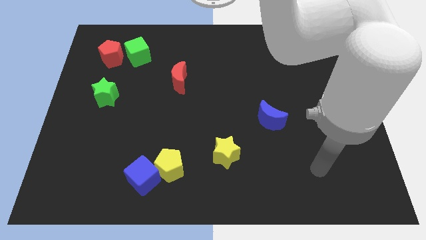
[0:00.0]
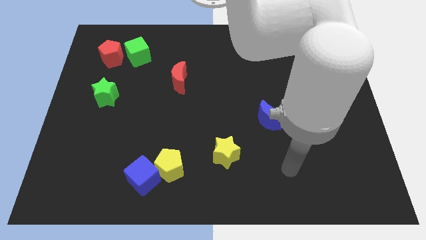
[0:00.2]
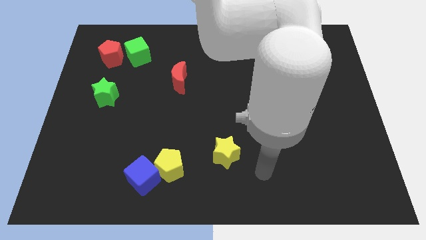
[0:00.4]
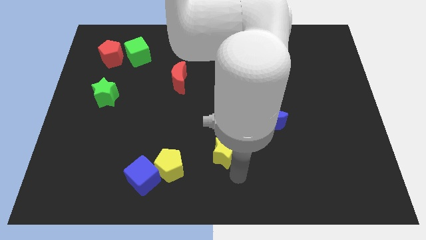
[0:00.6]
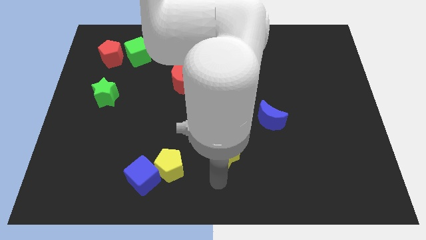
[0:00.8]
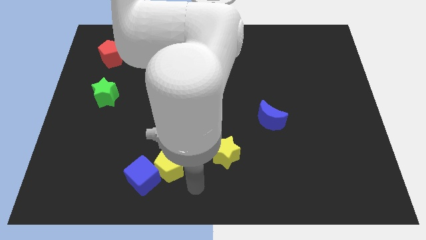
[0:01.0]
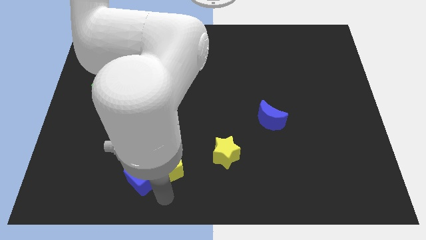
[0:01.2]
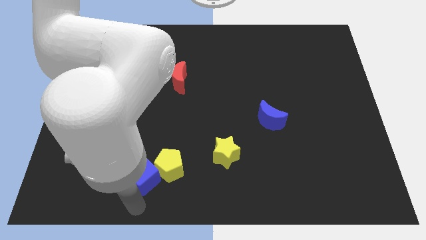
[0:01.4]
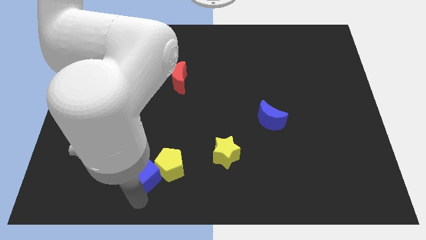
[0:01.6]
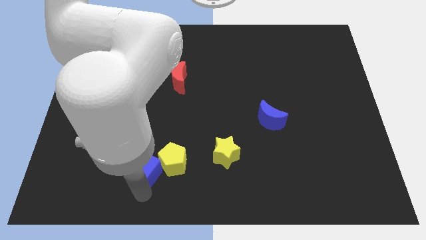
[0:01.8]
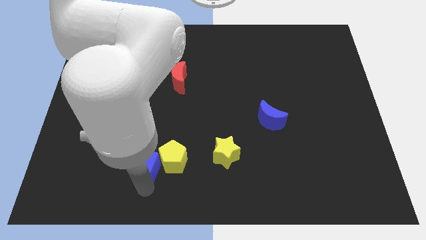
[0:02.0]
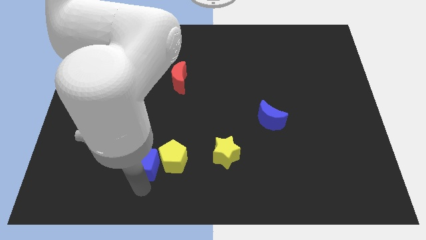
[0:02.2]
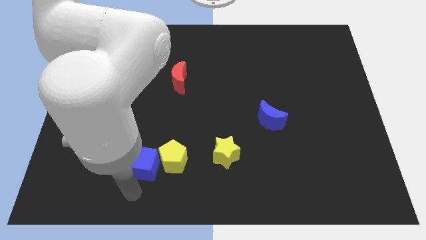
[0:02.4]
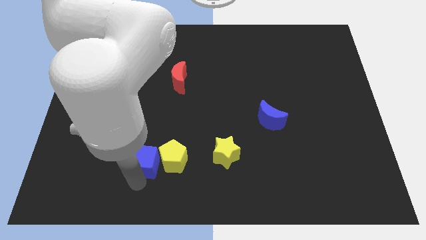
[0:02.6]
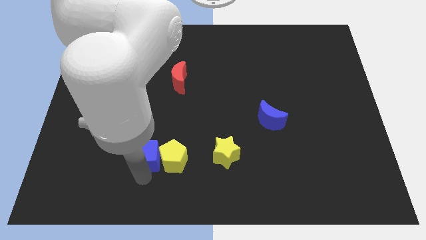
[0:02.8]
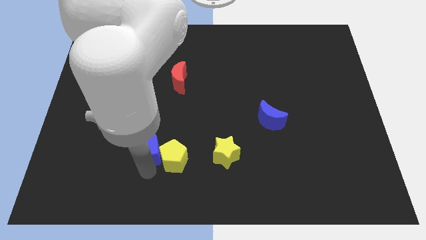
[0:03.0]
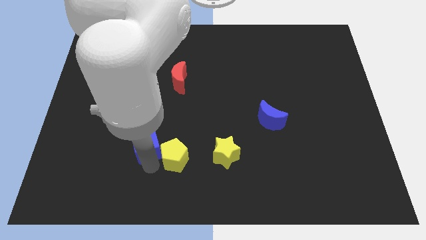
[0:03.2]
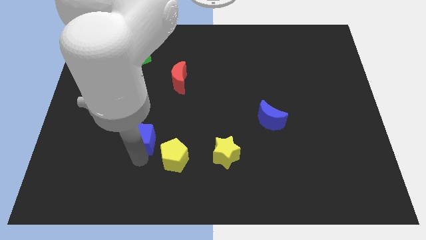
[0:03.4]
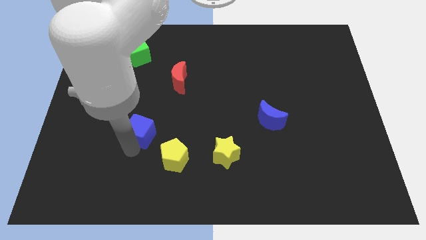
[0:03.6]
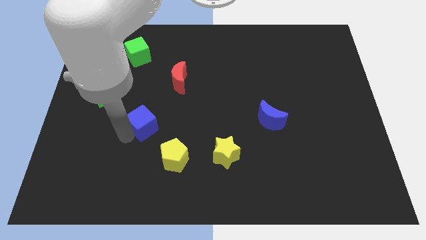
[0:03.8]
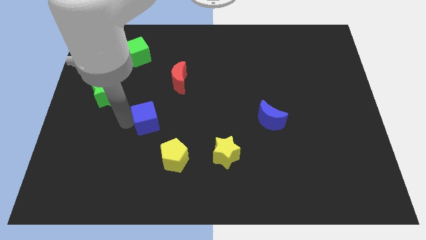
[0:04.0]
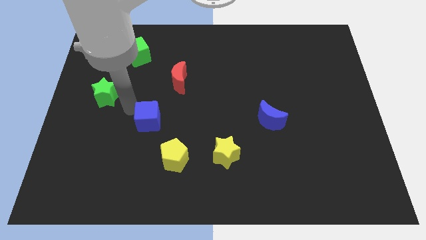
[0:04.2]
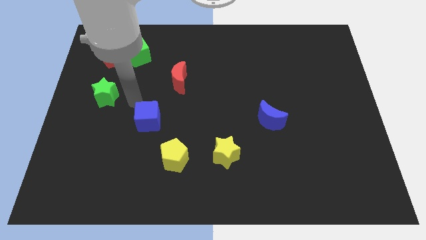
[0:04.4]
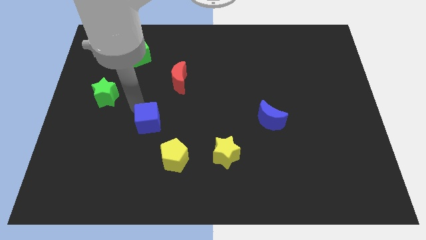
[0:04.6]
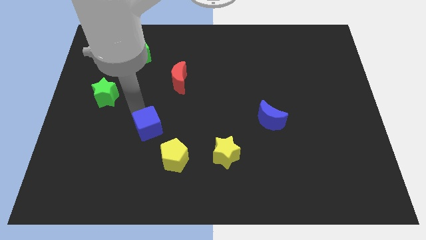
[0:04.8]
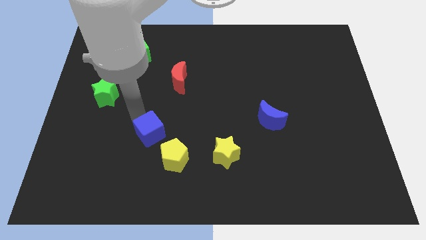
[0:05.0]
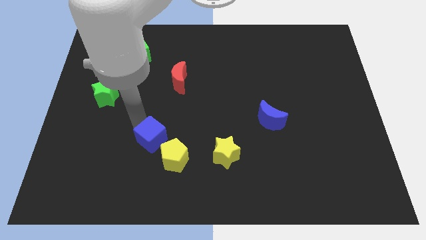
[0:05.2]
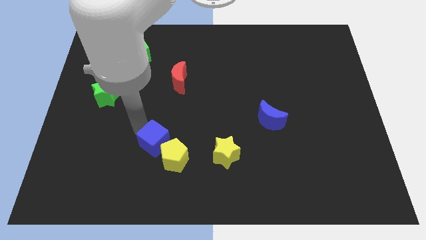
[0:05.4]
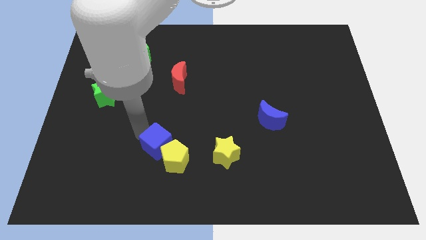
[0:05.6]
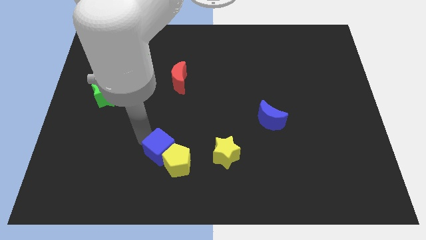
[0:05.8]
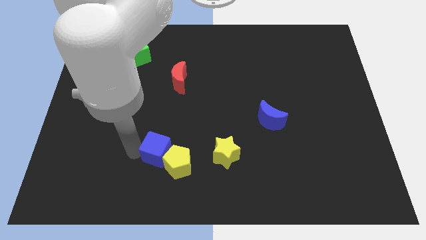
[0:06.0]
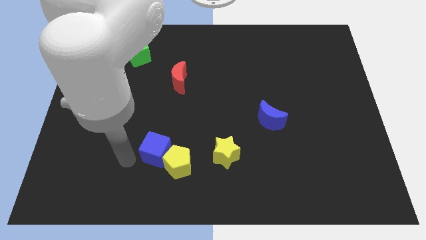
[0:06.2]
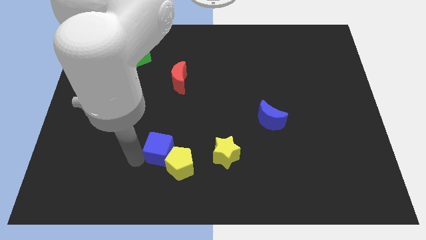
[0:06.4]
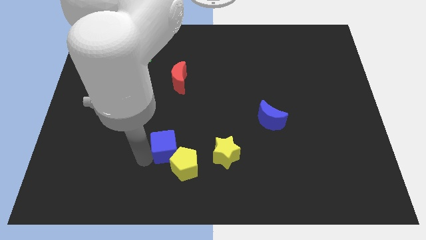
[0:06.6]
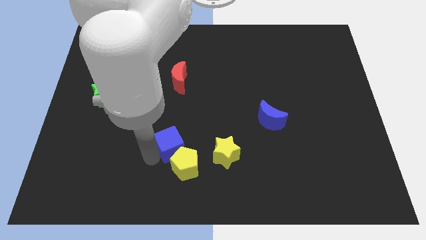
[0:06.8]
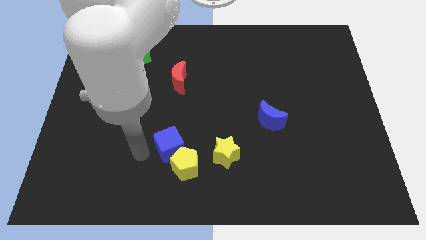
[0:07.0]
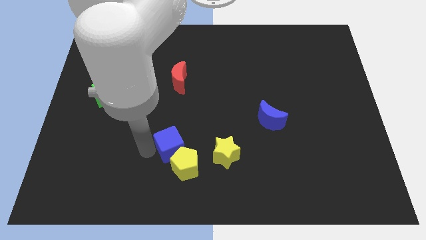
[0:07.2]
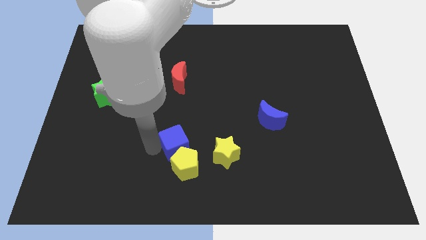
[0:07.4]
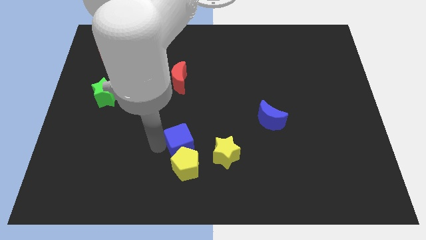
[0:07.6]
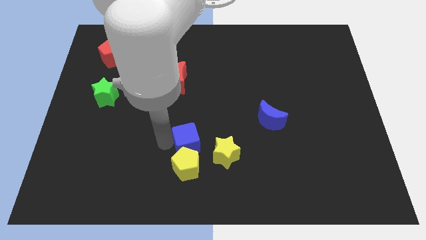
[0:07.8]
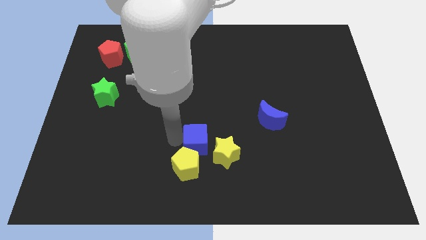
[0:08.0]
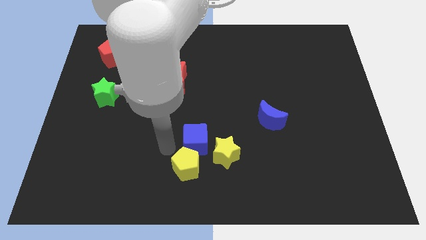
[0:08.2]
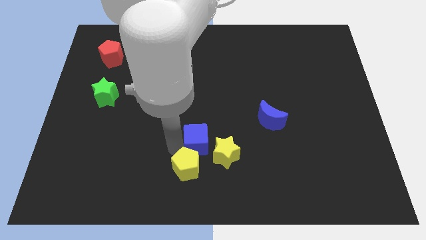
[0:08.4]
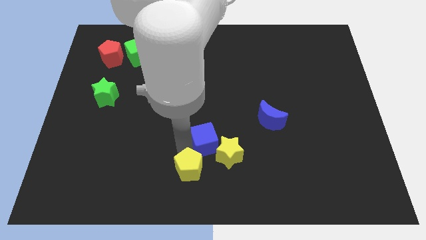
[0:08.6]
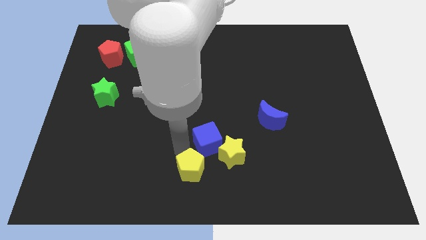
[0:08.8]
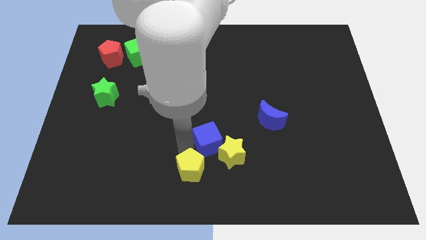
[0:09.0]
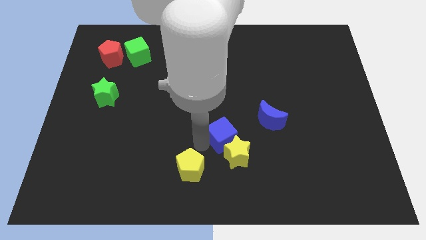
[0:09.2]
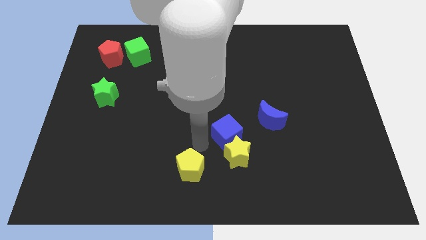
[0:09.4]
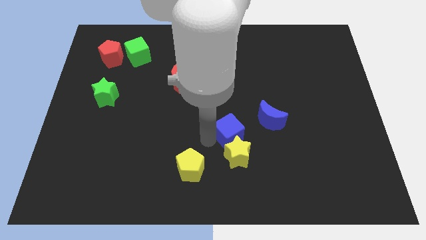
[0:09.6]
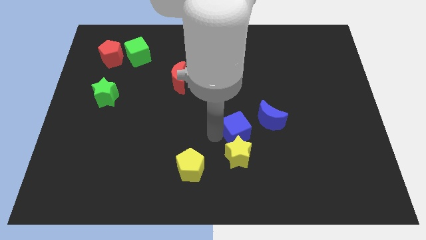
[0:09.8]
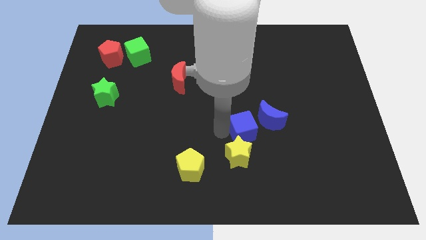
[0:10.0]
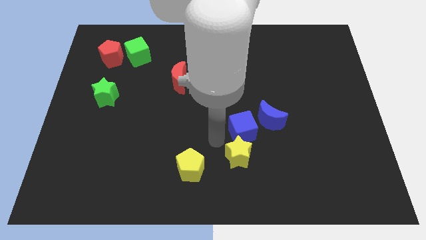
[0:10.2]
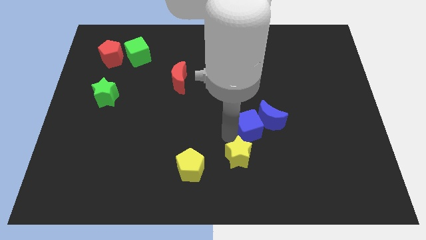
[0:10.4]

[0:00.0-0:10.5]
move the blue cube towards the blue moon

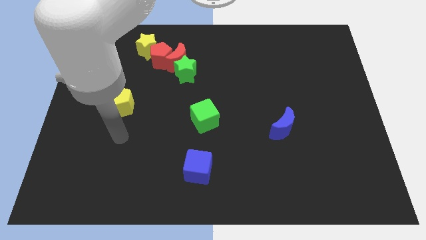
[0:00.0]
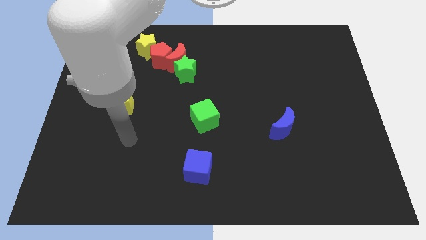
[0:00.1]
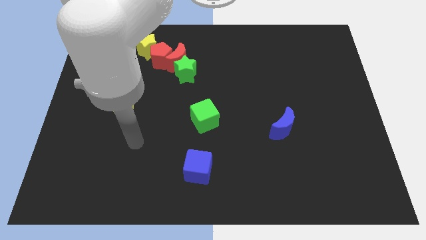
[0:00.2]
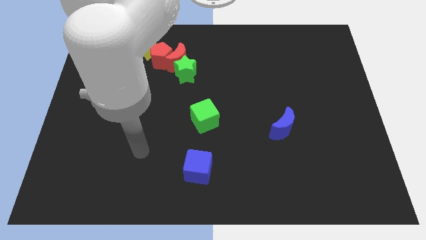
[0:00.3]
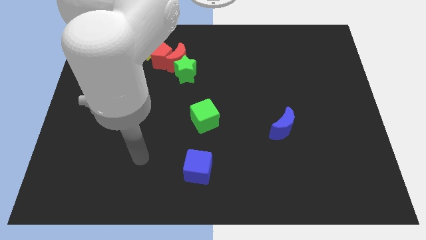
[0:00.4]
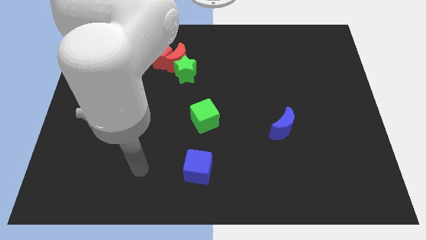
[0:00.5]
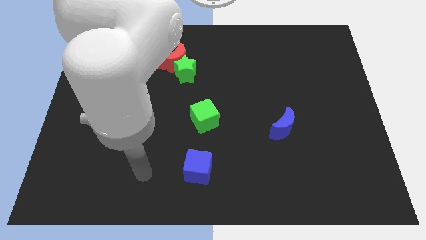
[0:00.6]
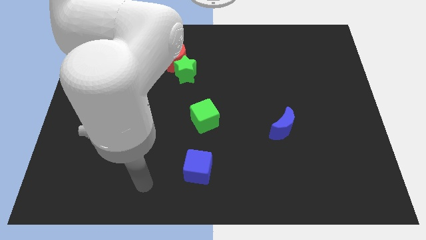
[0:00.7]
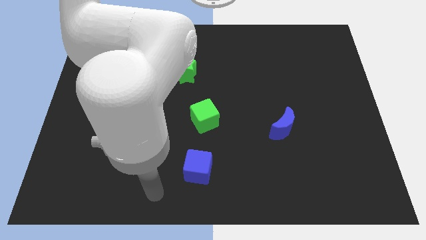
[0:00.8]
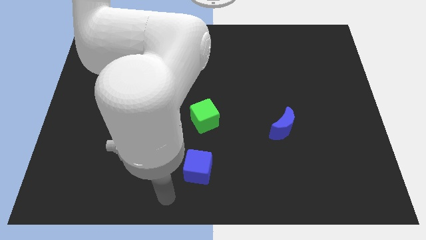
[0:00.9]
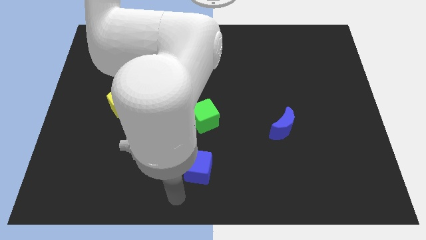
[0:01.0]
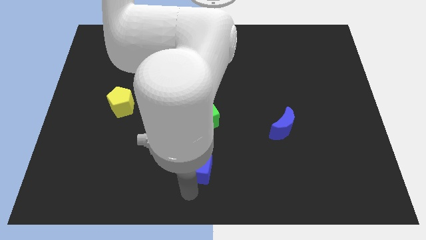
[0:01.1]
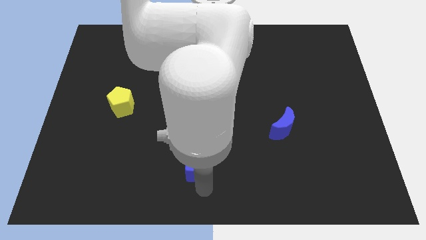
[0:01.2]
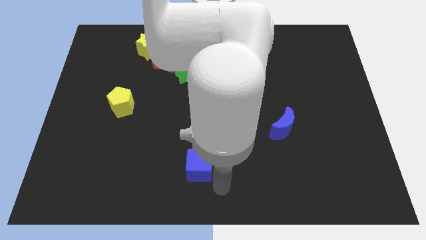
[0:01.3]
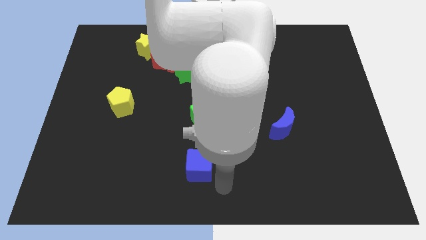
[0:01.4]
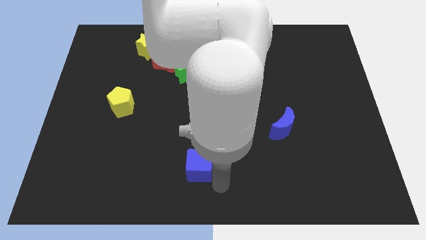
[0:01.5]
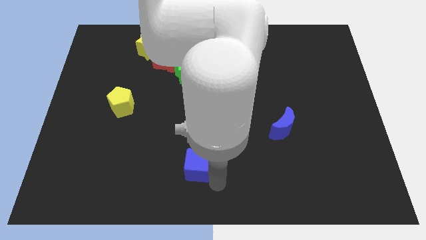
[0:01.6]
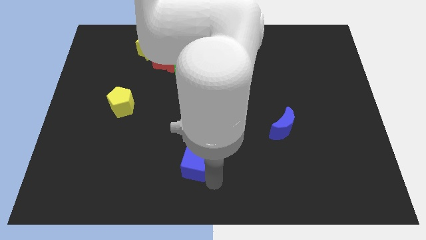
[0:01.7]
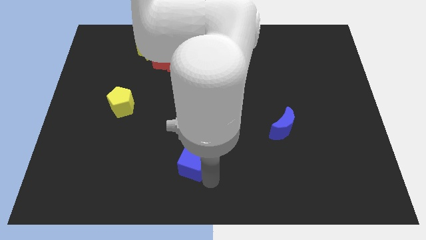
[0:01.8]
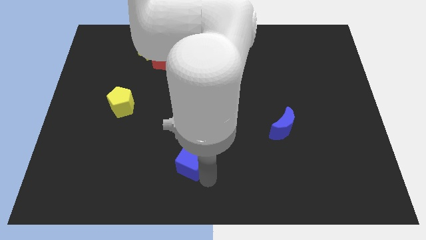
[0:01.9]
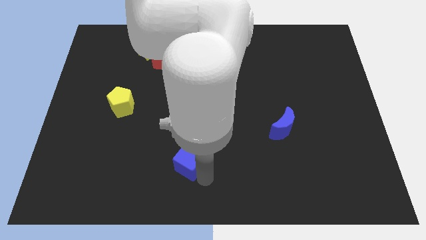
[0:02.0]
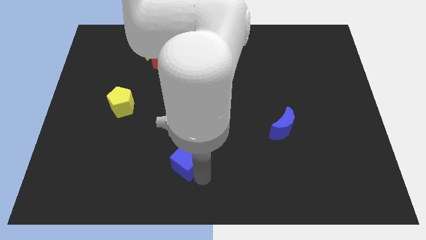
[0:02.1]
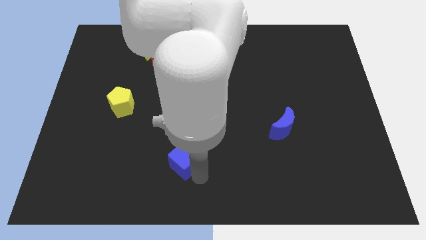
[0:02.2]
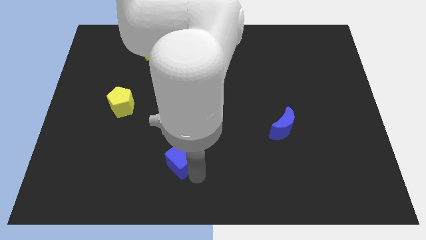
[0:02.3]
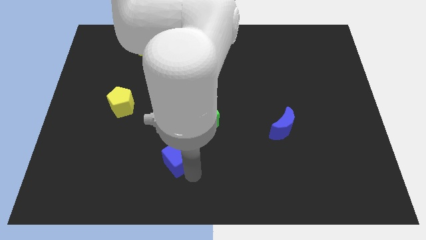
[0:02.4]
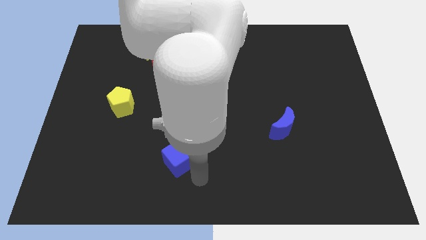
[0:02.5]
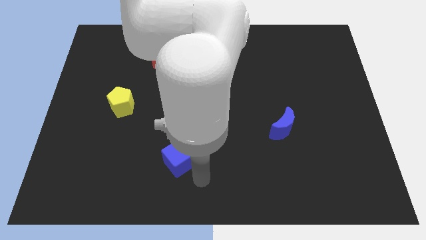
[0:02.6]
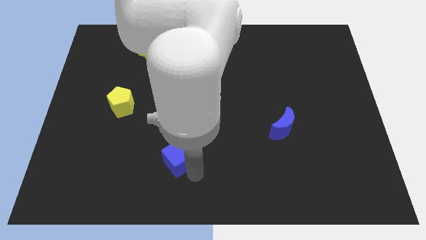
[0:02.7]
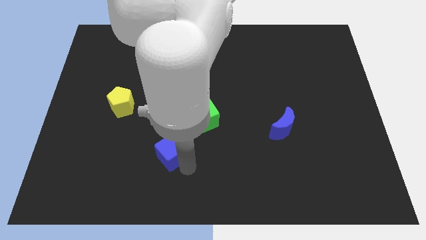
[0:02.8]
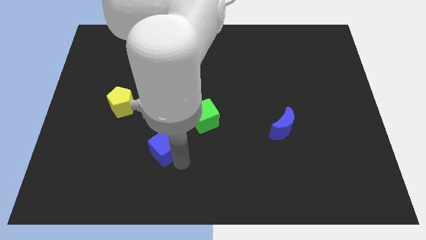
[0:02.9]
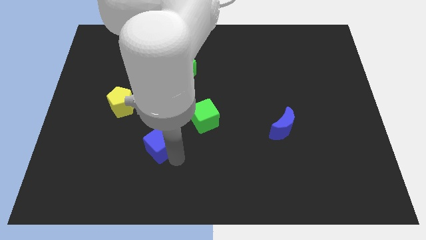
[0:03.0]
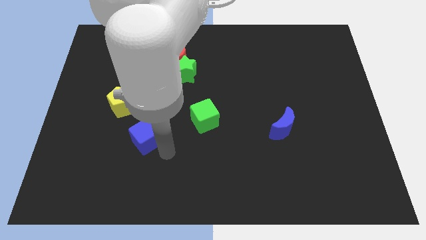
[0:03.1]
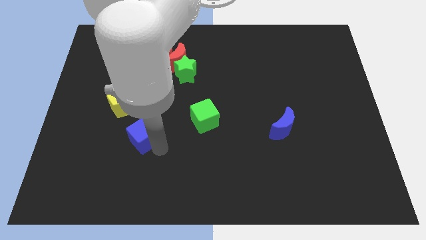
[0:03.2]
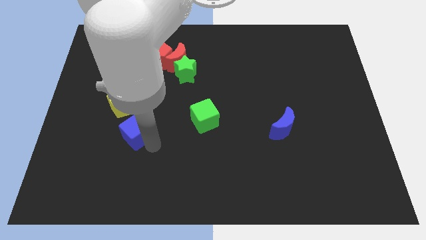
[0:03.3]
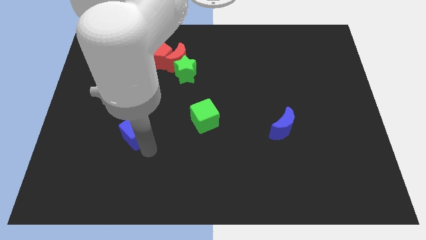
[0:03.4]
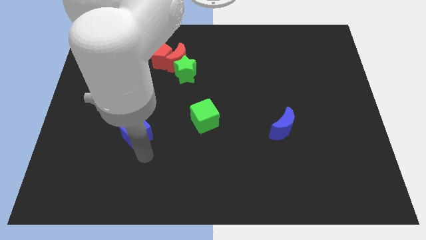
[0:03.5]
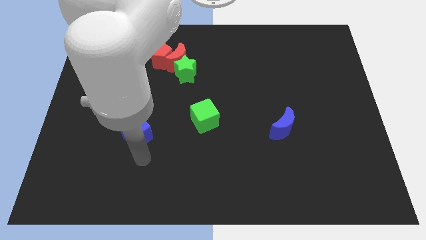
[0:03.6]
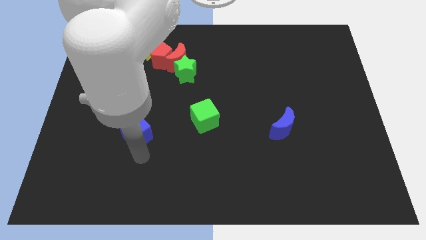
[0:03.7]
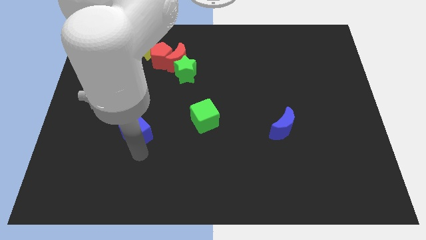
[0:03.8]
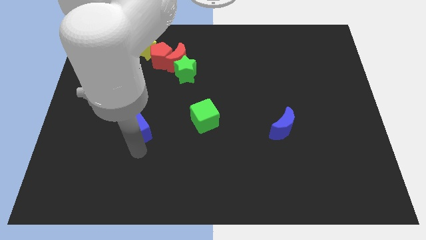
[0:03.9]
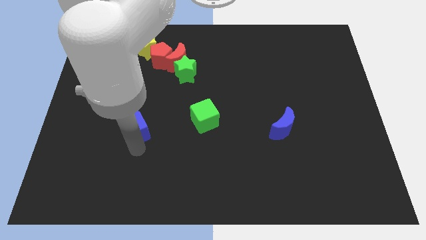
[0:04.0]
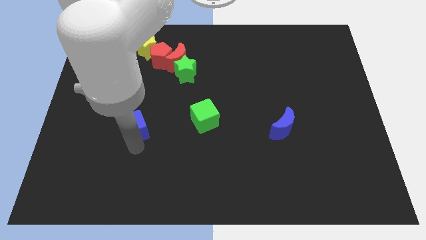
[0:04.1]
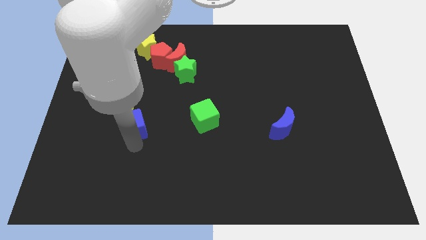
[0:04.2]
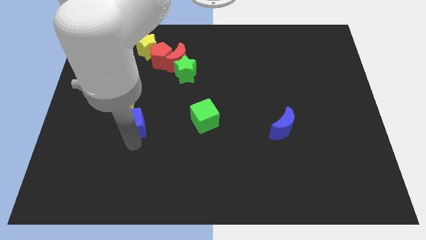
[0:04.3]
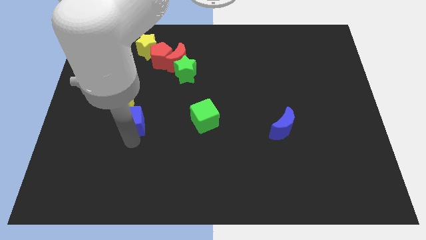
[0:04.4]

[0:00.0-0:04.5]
push the blue cube towards the yellow pentagon
